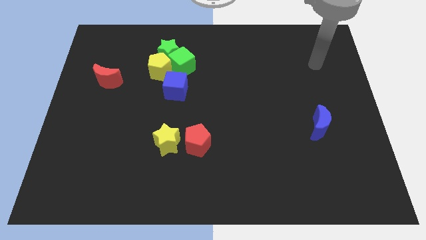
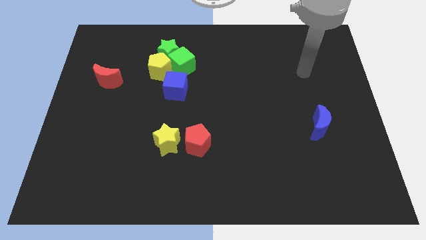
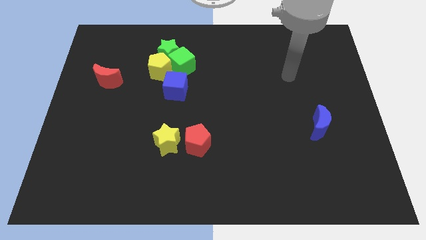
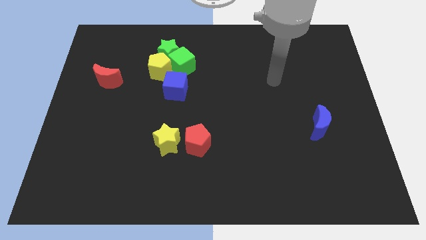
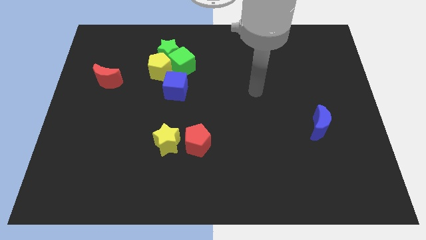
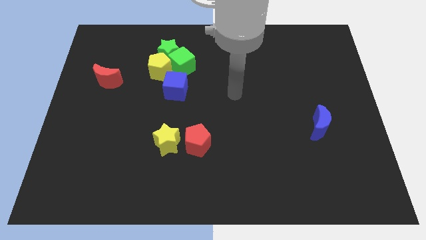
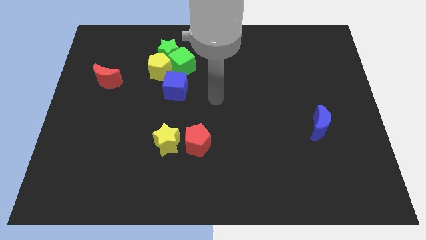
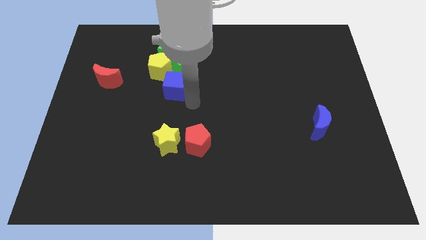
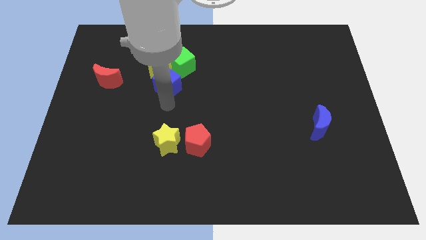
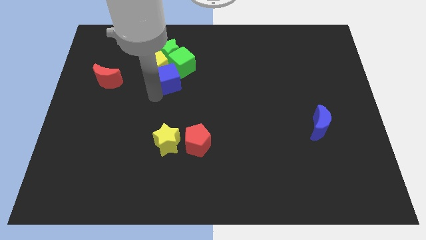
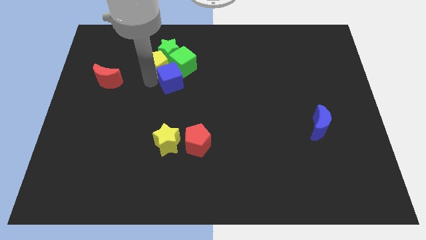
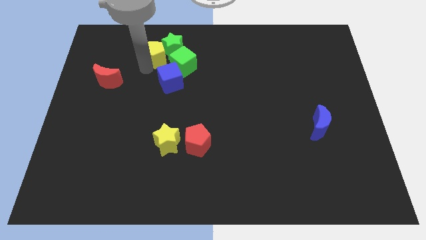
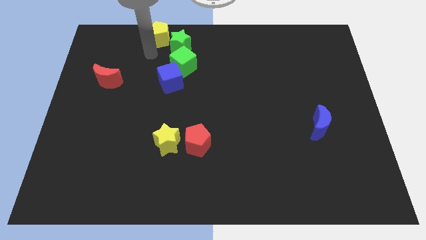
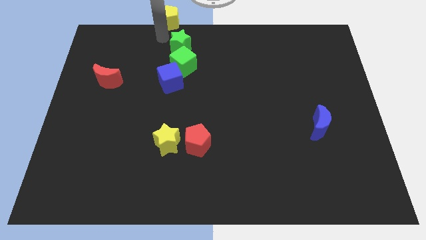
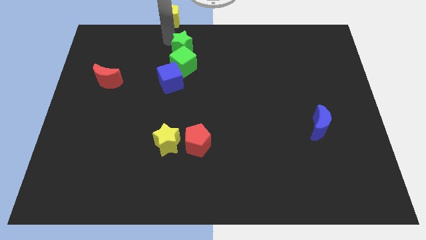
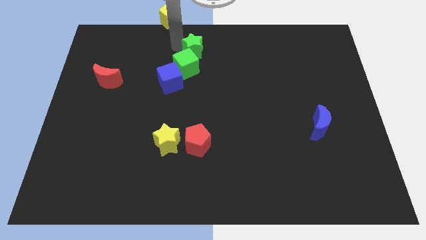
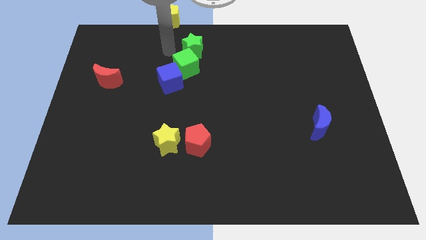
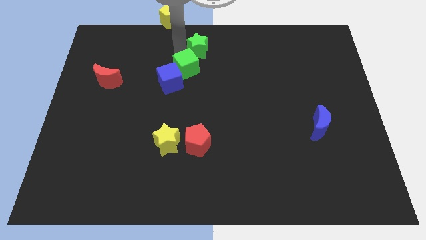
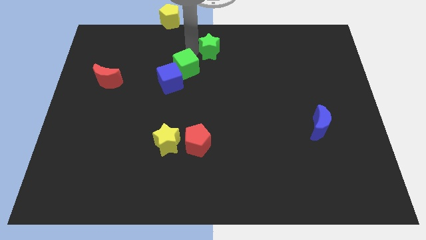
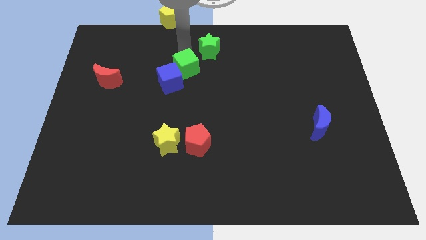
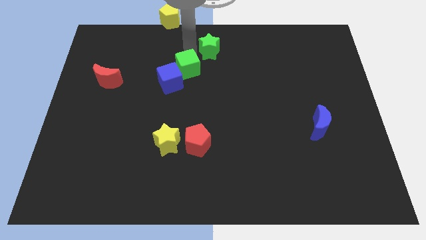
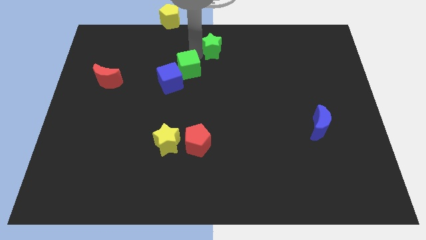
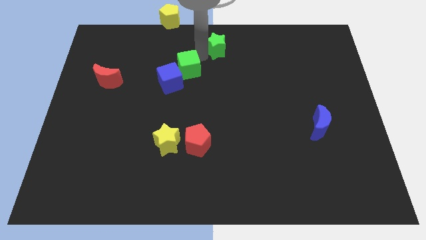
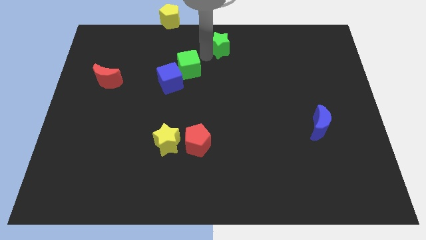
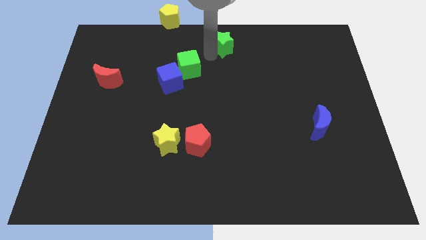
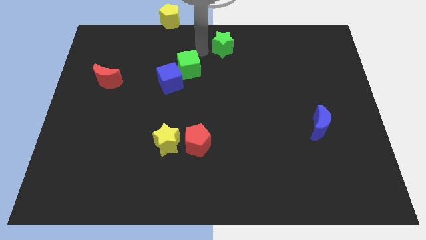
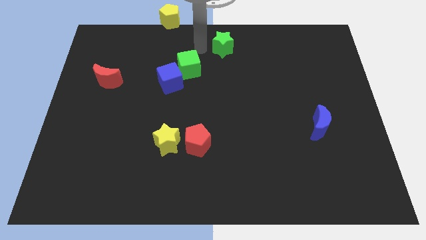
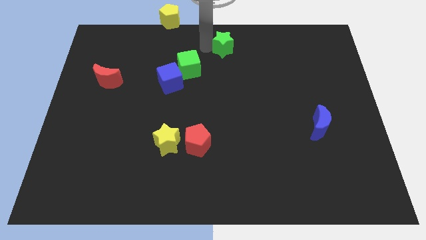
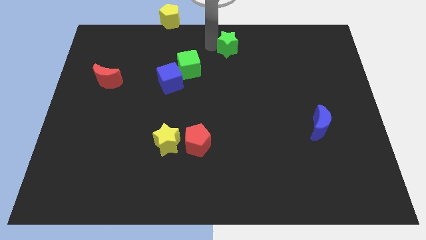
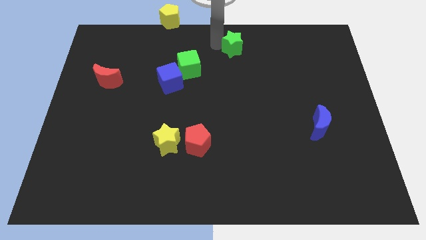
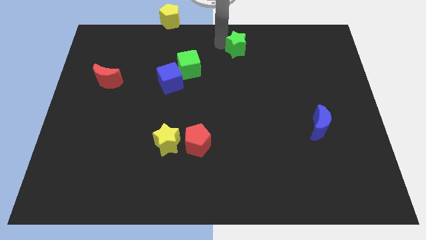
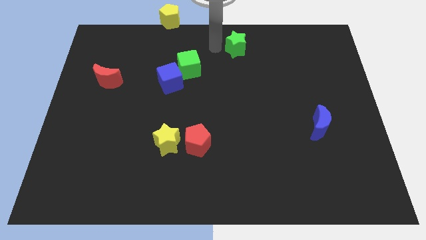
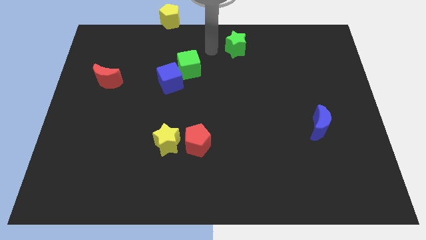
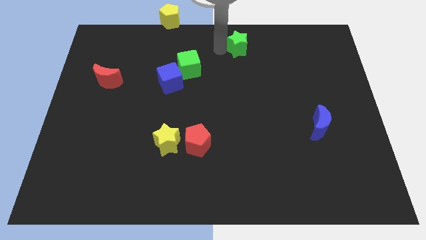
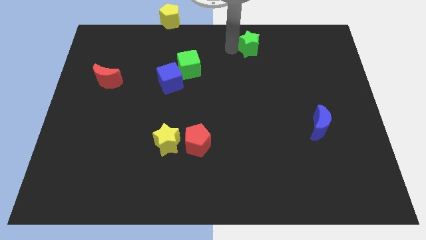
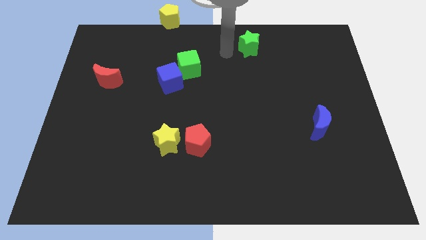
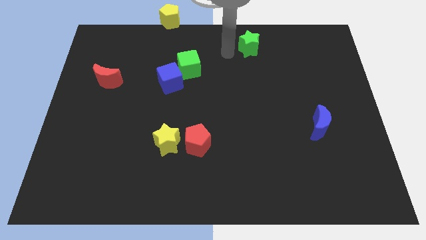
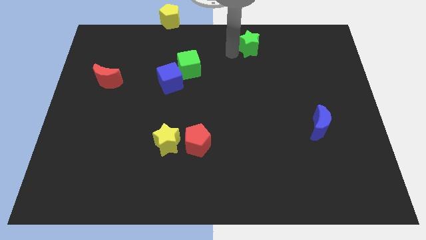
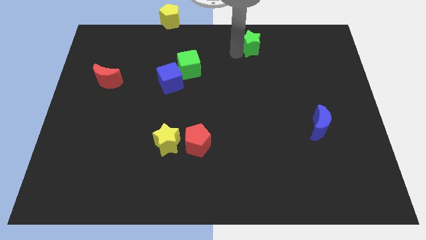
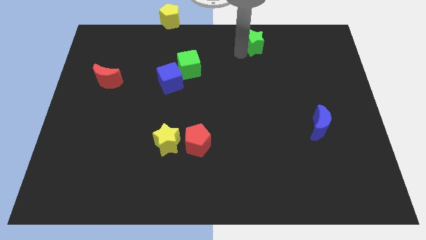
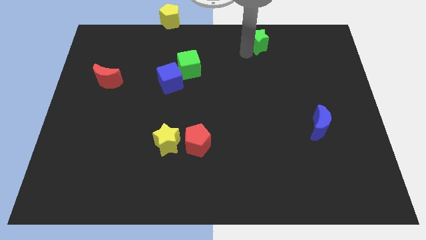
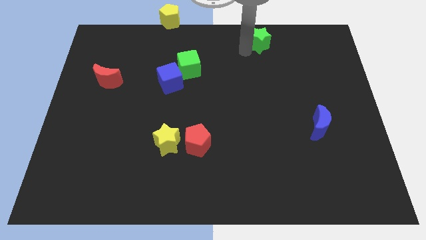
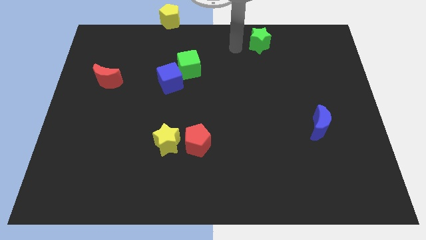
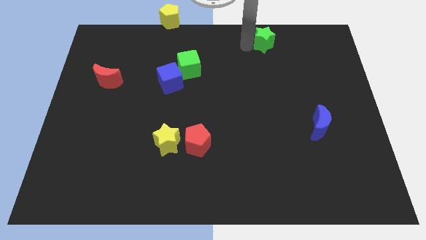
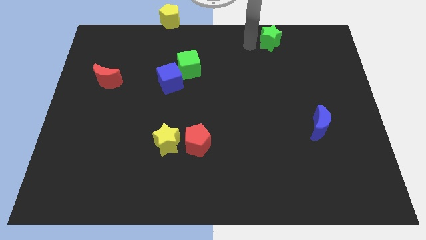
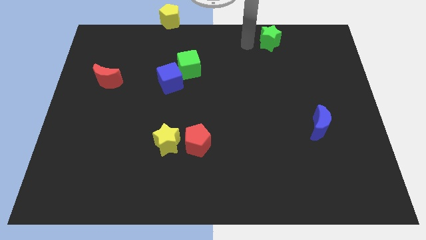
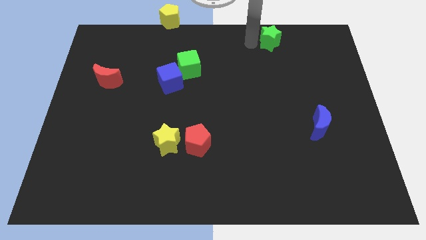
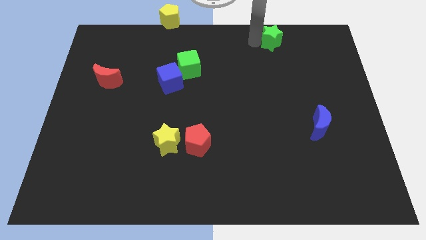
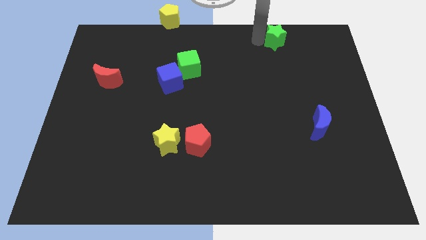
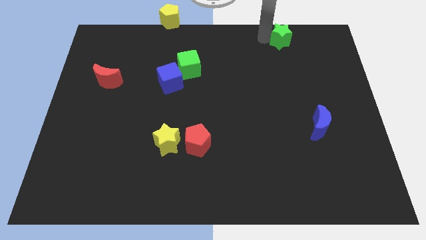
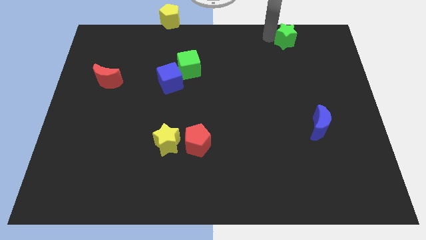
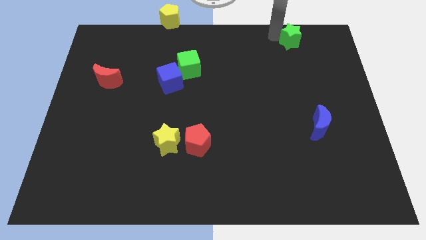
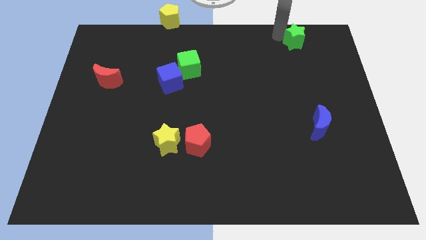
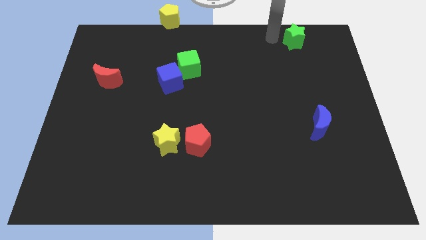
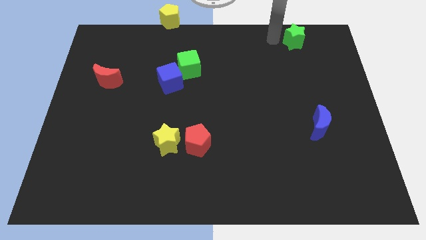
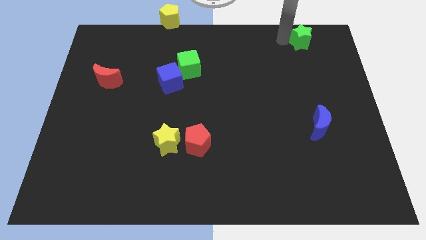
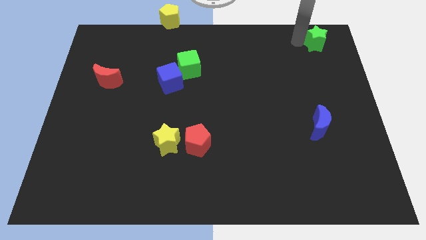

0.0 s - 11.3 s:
push the green star to the top right corner
